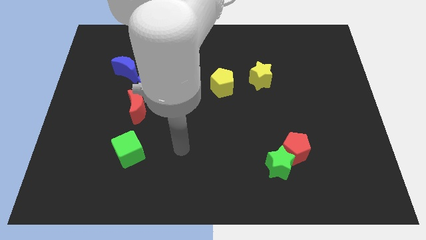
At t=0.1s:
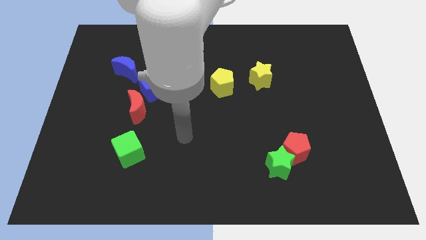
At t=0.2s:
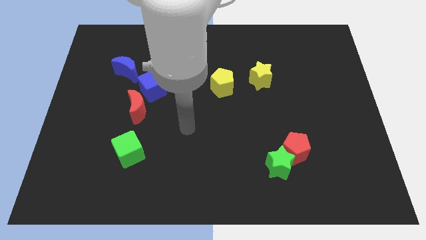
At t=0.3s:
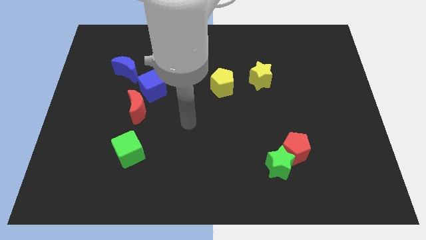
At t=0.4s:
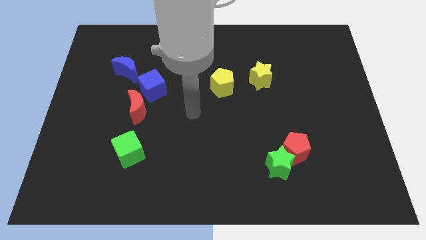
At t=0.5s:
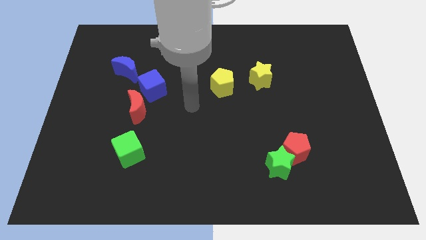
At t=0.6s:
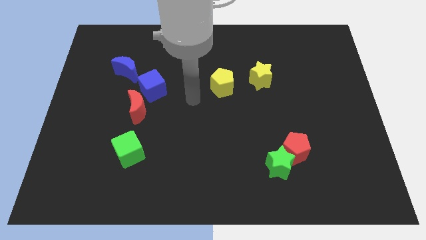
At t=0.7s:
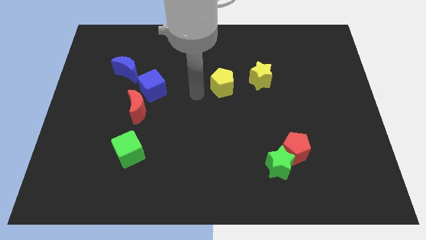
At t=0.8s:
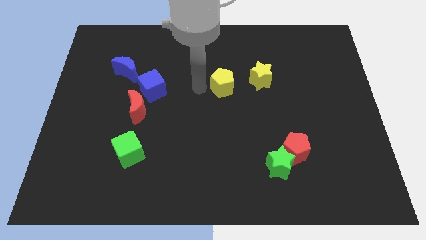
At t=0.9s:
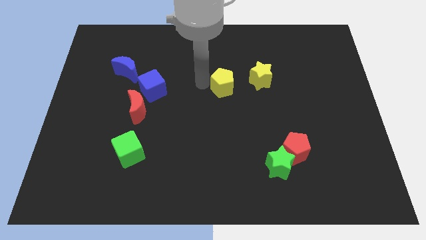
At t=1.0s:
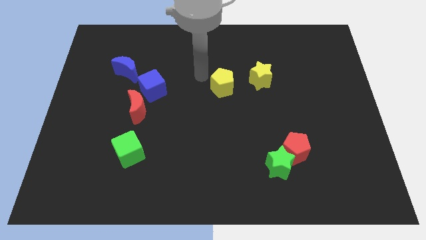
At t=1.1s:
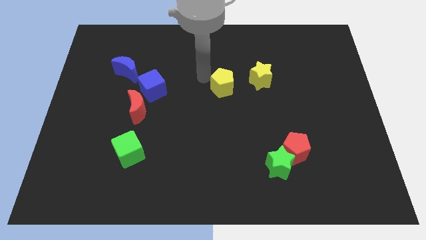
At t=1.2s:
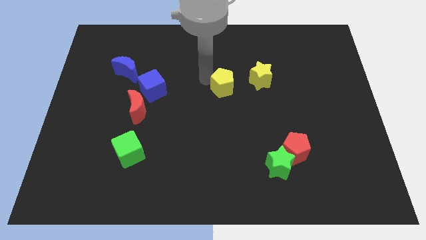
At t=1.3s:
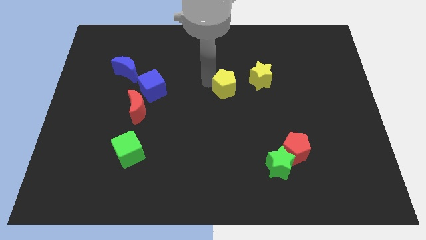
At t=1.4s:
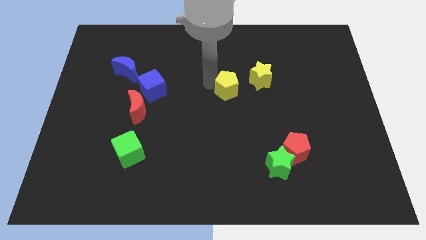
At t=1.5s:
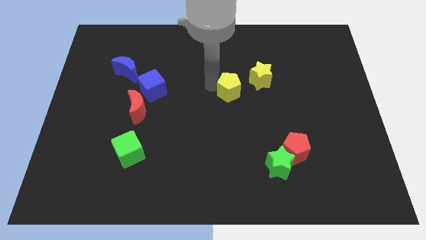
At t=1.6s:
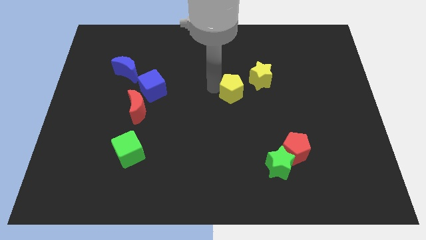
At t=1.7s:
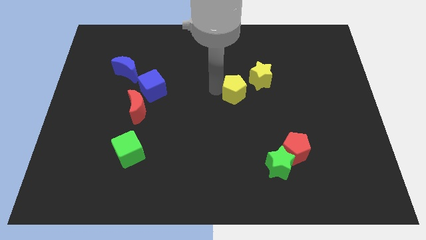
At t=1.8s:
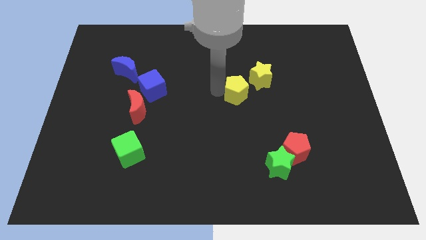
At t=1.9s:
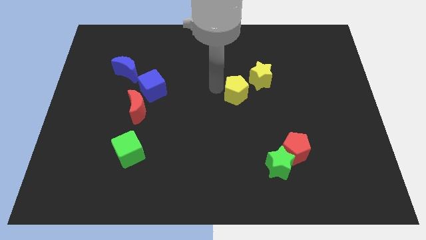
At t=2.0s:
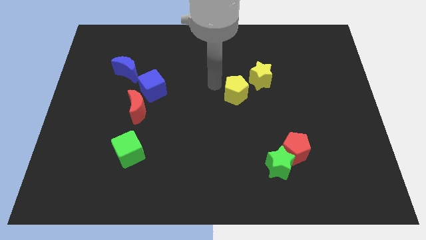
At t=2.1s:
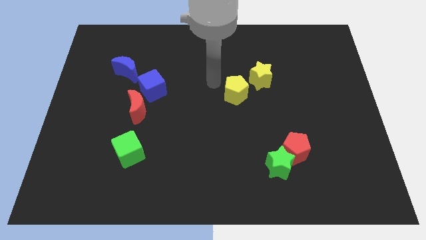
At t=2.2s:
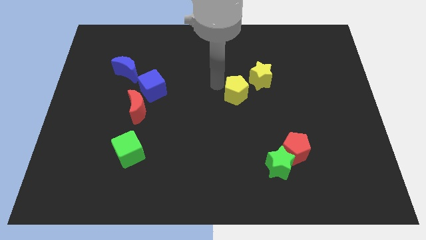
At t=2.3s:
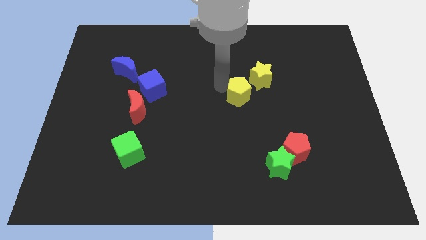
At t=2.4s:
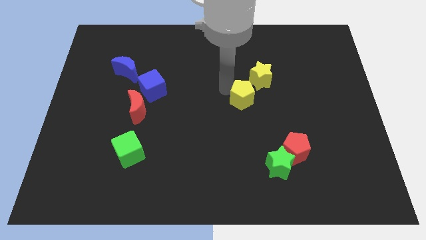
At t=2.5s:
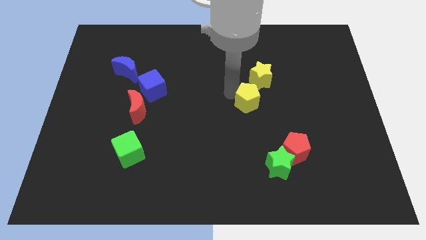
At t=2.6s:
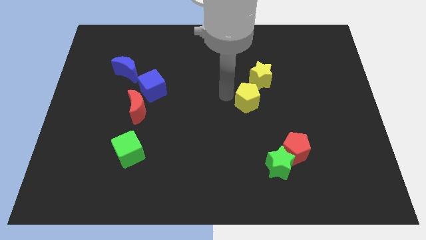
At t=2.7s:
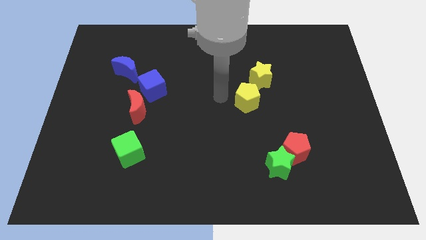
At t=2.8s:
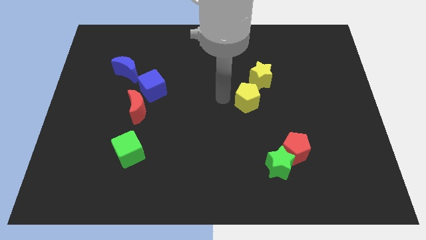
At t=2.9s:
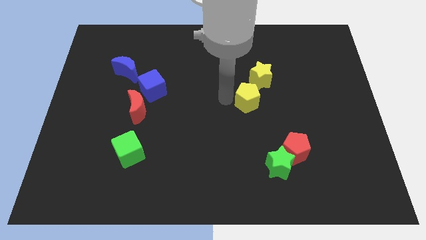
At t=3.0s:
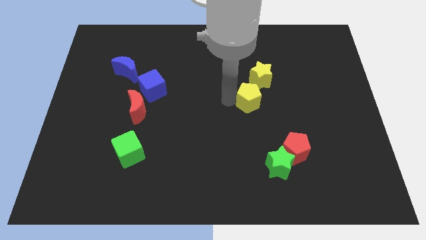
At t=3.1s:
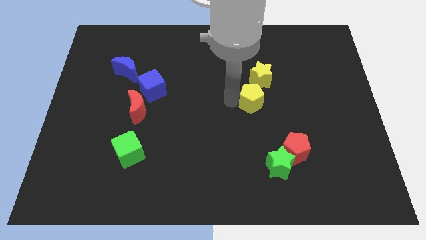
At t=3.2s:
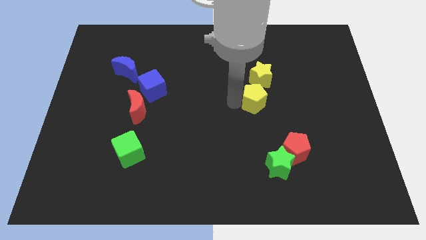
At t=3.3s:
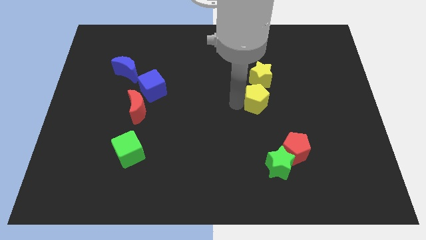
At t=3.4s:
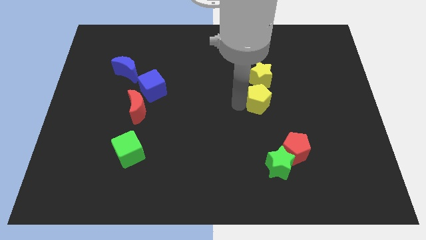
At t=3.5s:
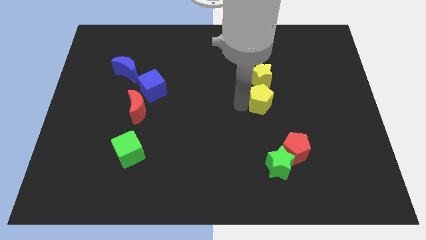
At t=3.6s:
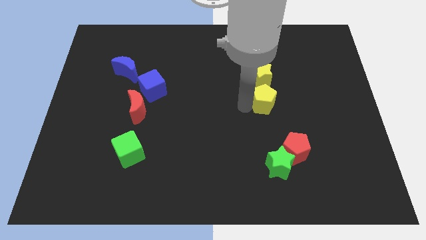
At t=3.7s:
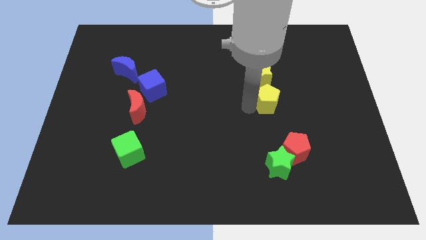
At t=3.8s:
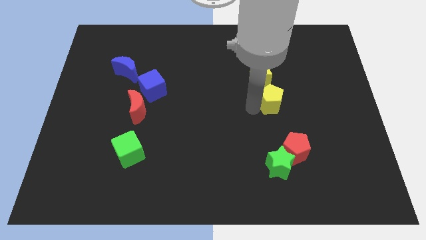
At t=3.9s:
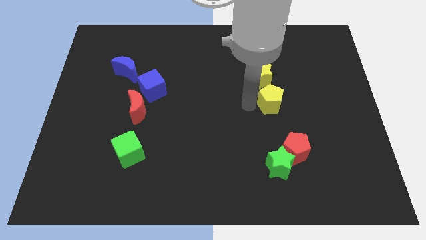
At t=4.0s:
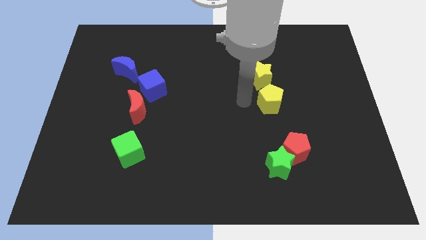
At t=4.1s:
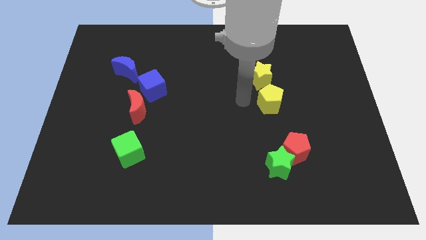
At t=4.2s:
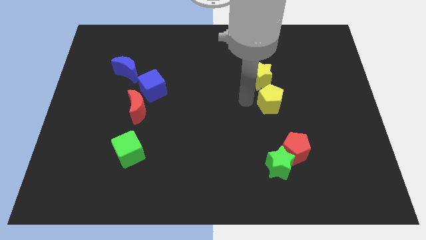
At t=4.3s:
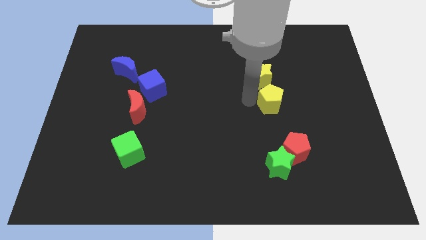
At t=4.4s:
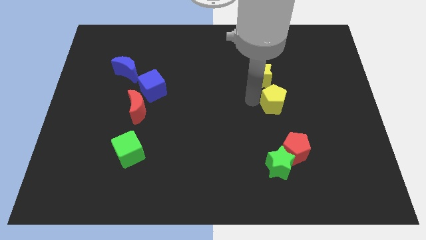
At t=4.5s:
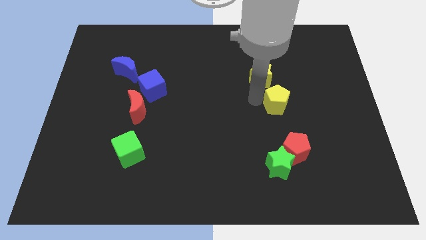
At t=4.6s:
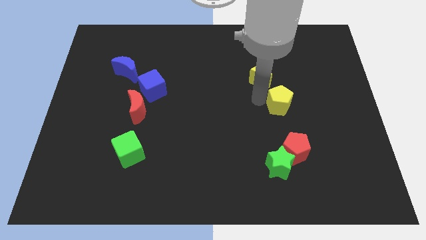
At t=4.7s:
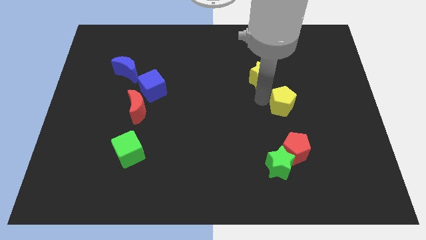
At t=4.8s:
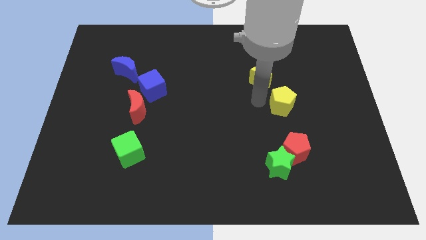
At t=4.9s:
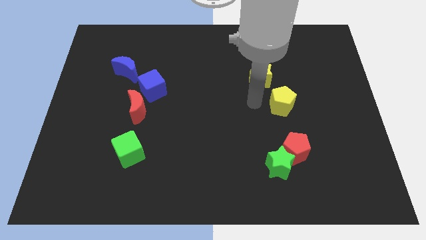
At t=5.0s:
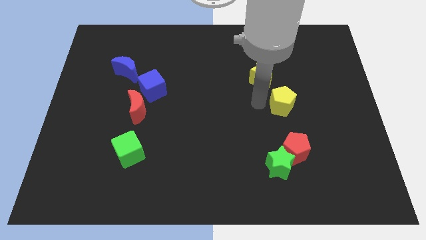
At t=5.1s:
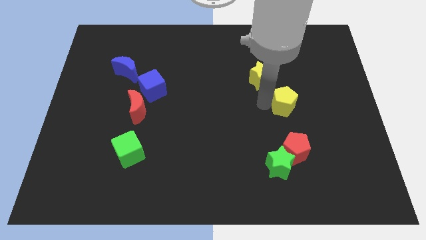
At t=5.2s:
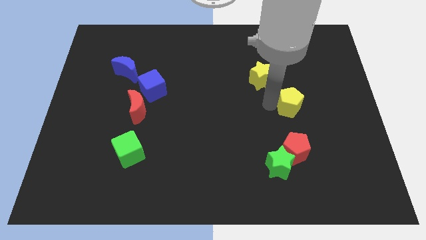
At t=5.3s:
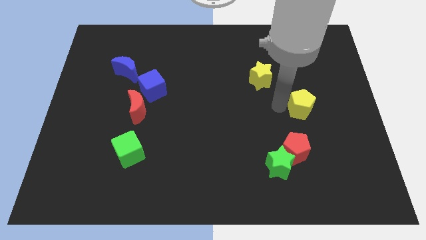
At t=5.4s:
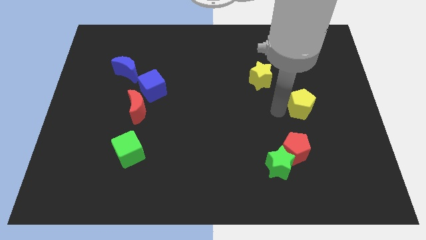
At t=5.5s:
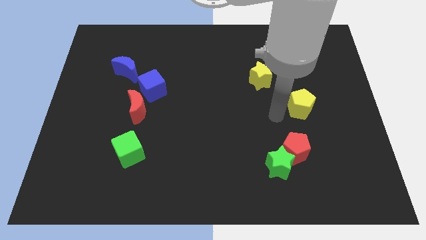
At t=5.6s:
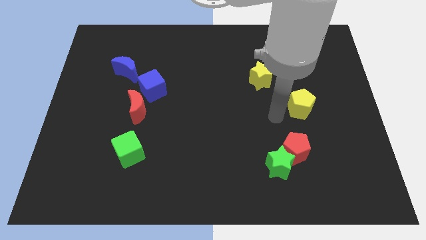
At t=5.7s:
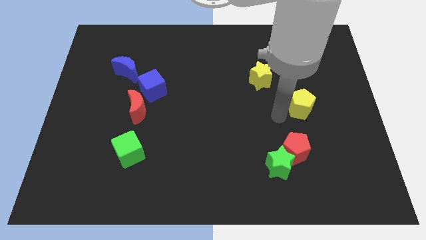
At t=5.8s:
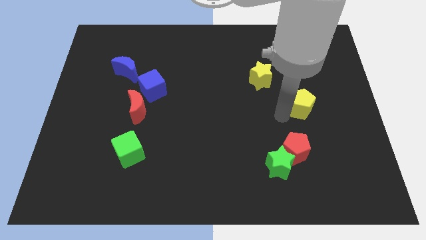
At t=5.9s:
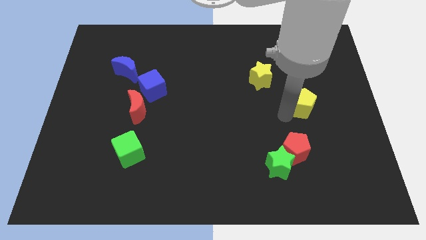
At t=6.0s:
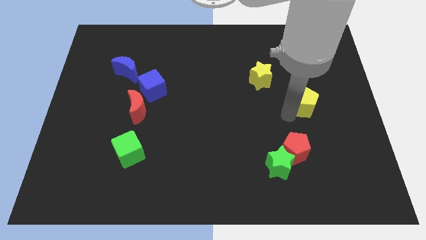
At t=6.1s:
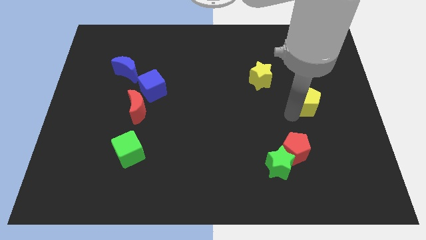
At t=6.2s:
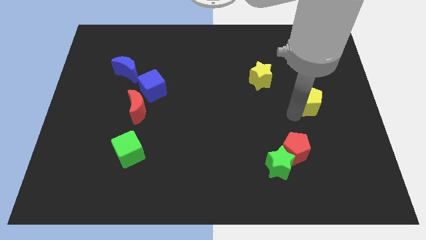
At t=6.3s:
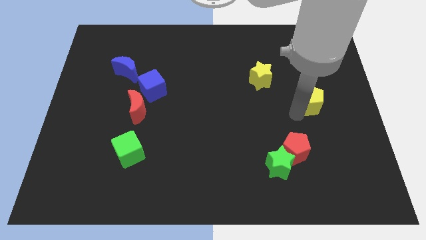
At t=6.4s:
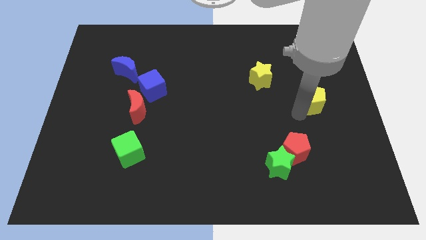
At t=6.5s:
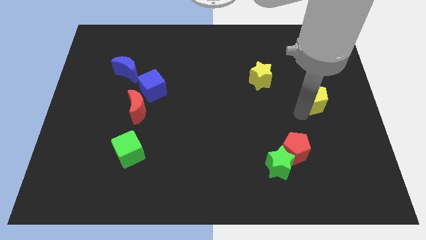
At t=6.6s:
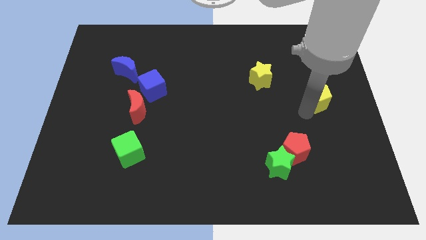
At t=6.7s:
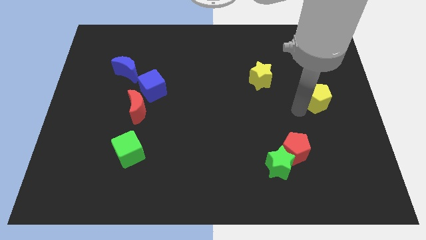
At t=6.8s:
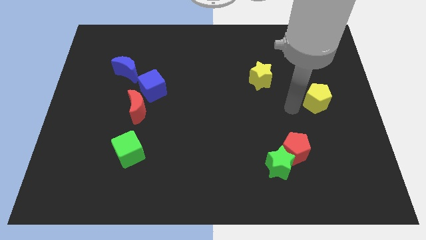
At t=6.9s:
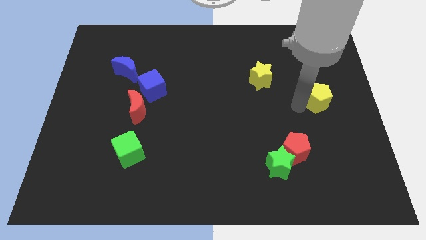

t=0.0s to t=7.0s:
move the yellow pentagon to the right side
